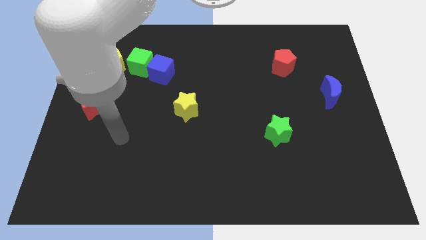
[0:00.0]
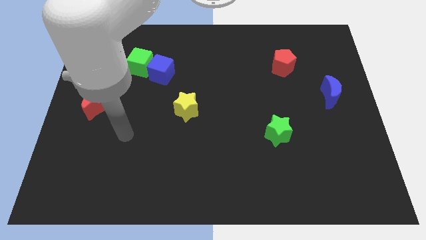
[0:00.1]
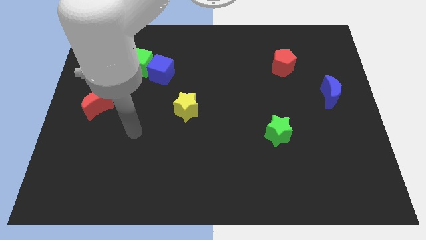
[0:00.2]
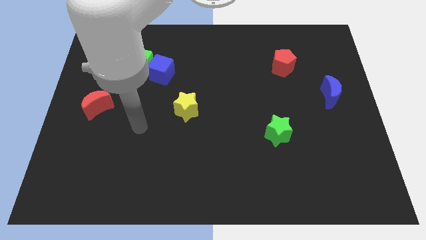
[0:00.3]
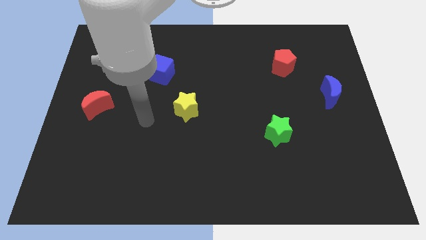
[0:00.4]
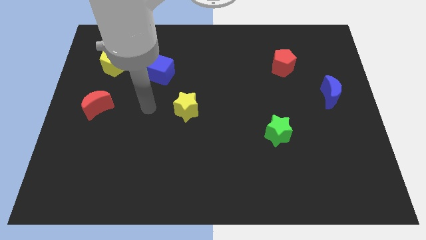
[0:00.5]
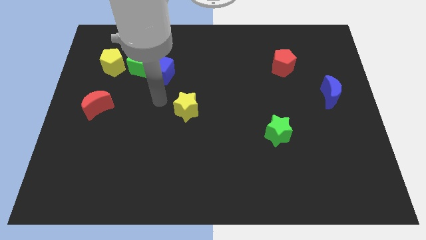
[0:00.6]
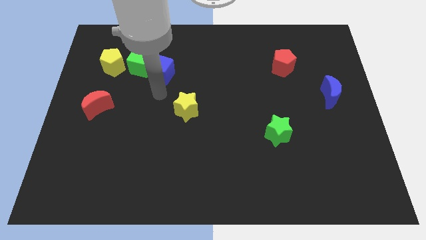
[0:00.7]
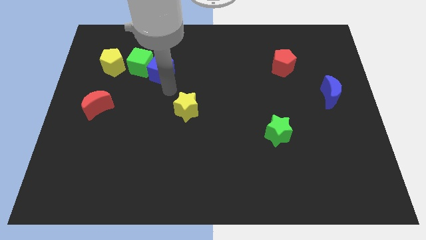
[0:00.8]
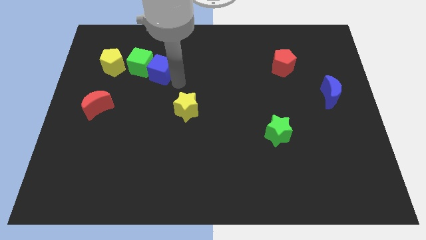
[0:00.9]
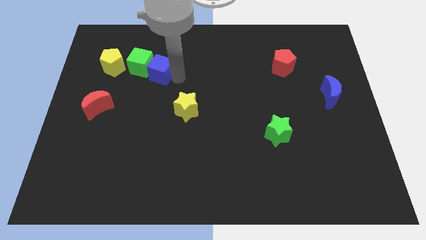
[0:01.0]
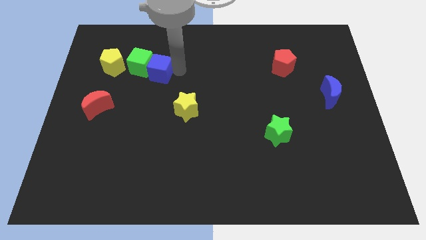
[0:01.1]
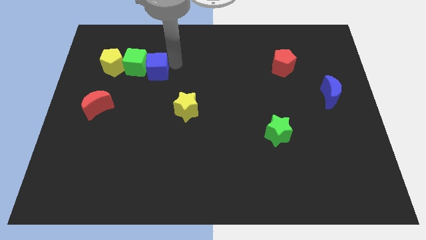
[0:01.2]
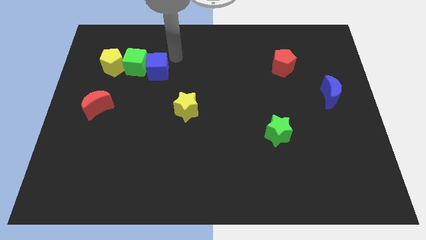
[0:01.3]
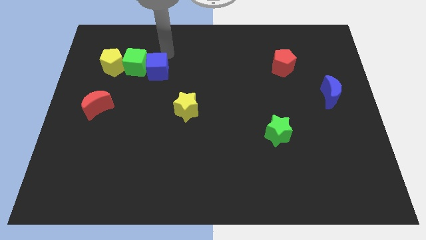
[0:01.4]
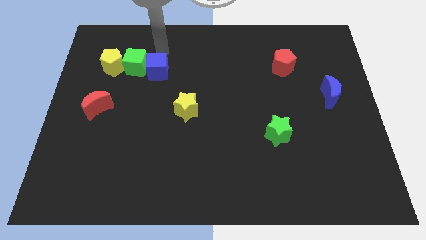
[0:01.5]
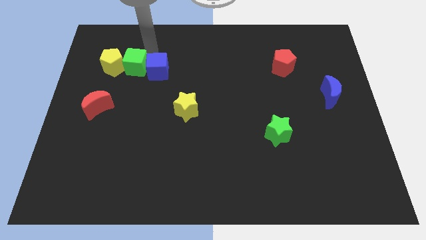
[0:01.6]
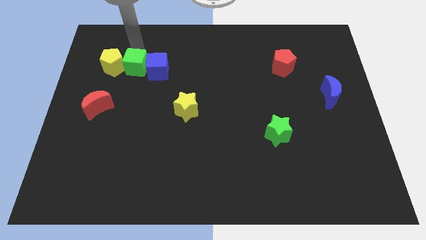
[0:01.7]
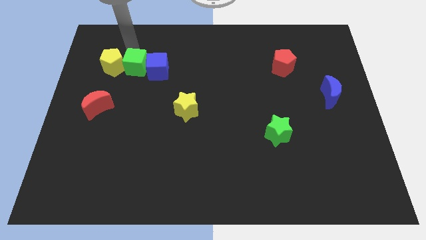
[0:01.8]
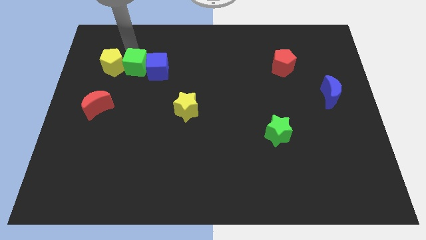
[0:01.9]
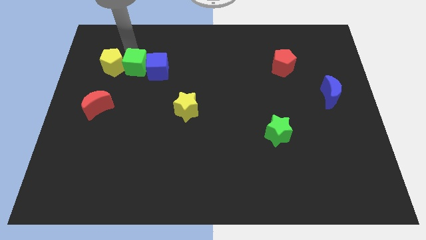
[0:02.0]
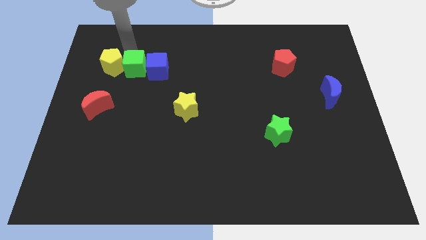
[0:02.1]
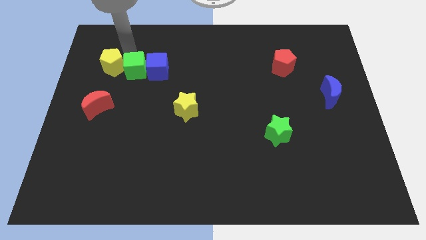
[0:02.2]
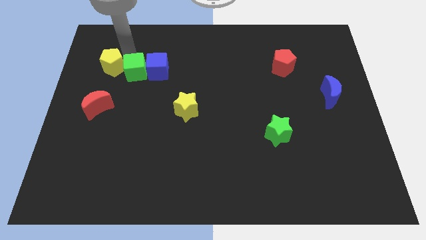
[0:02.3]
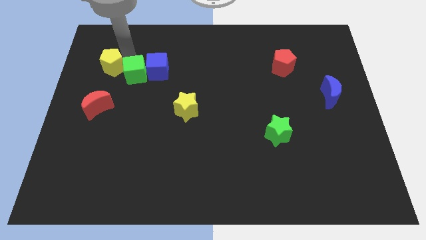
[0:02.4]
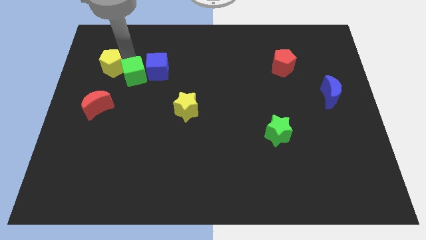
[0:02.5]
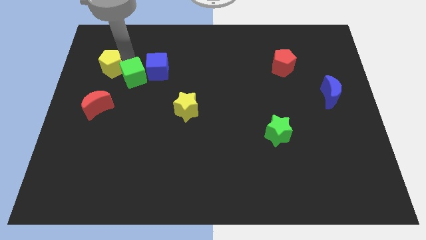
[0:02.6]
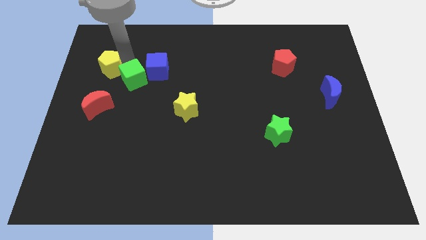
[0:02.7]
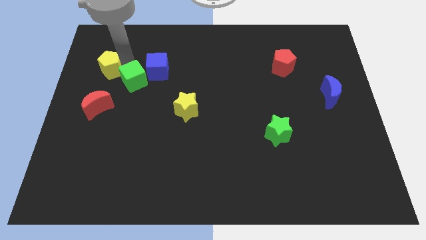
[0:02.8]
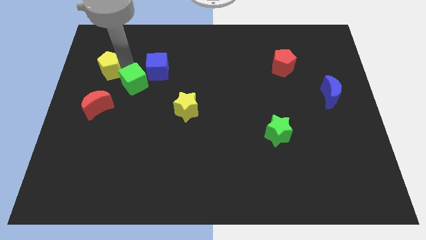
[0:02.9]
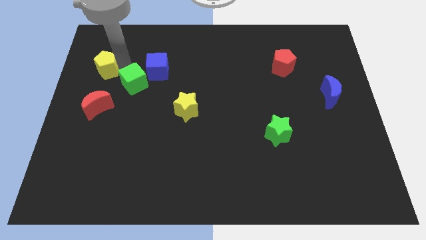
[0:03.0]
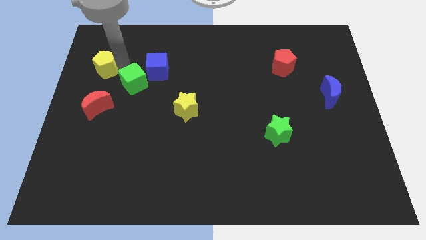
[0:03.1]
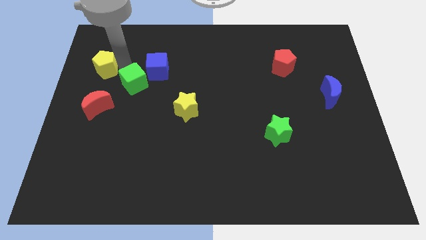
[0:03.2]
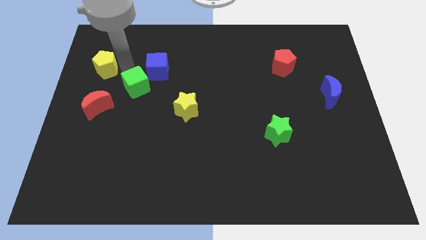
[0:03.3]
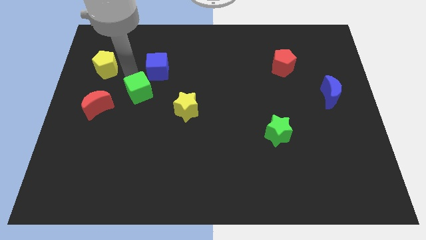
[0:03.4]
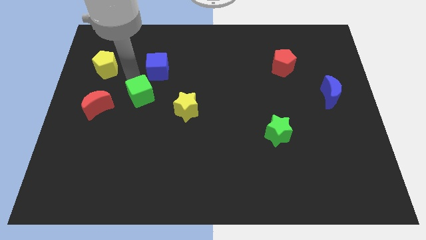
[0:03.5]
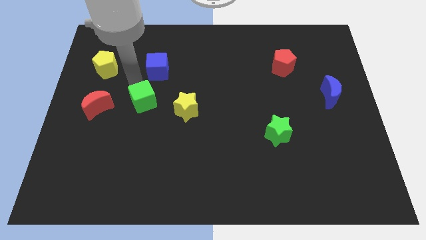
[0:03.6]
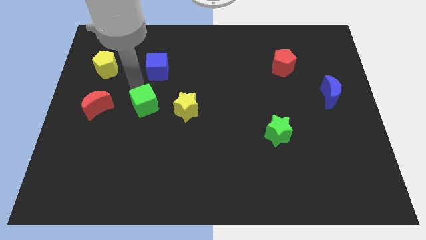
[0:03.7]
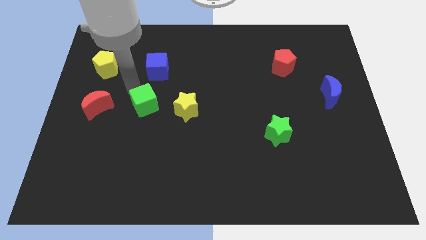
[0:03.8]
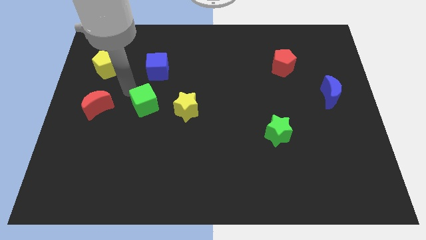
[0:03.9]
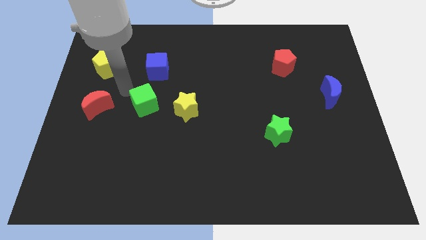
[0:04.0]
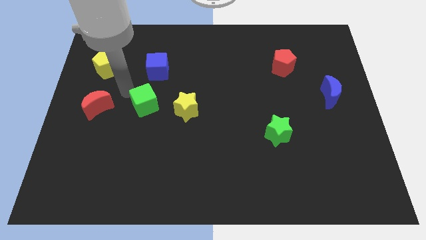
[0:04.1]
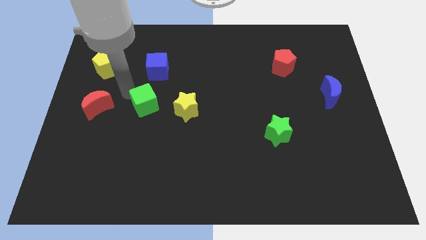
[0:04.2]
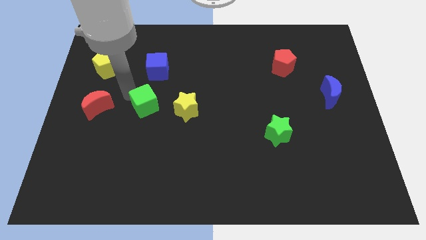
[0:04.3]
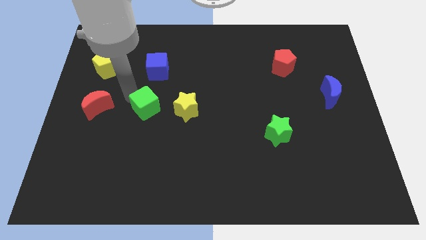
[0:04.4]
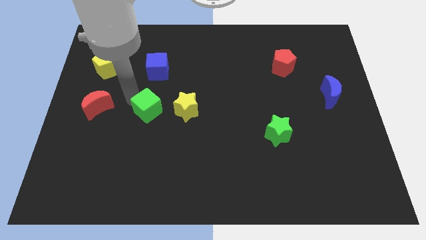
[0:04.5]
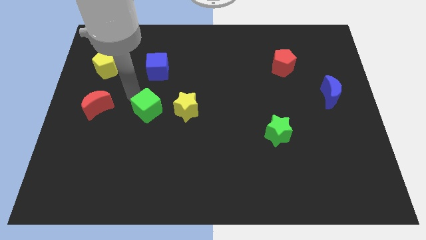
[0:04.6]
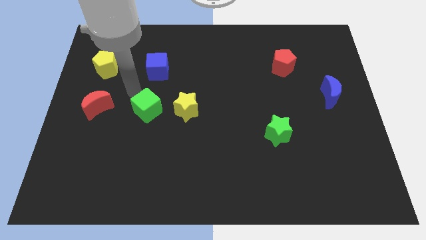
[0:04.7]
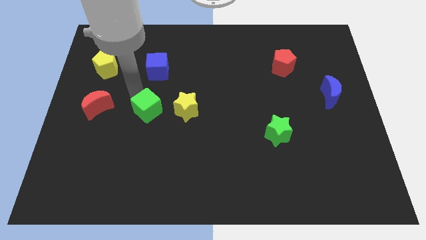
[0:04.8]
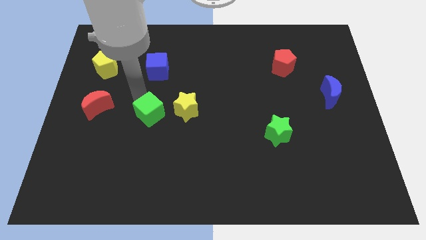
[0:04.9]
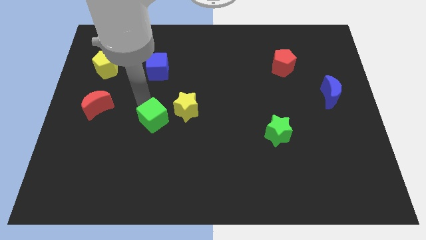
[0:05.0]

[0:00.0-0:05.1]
put the green cube diagonally down and to the left of the yellow star

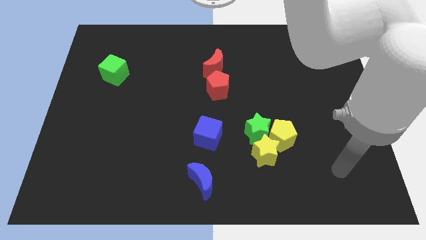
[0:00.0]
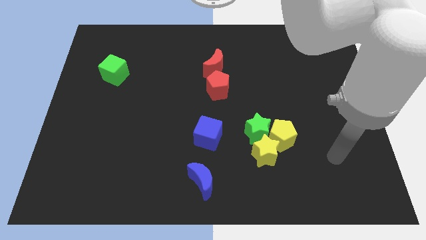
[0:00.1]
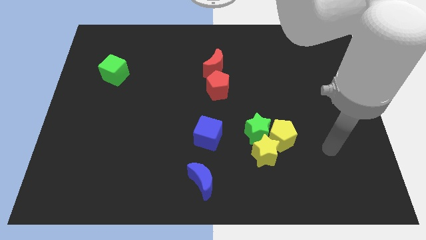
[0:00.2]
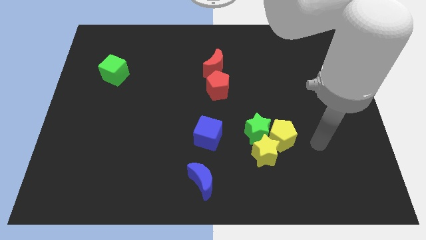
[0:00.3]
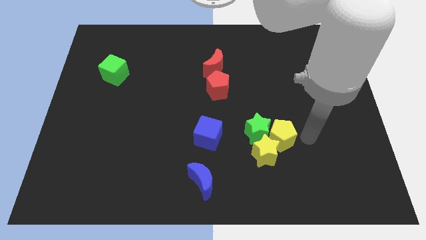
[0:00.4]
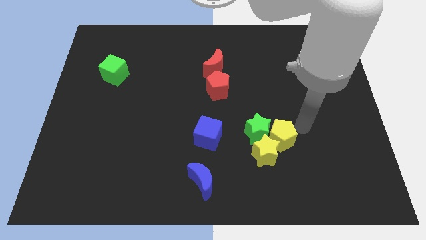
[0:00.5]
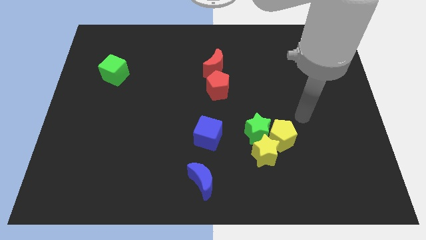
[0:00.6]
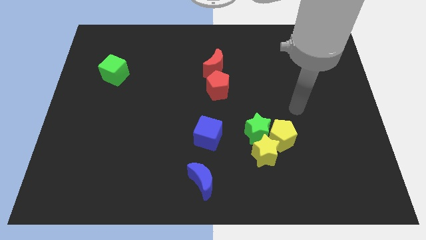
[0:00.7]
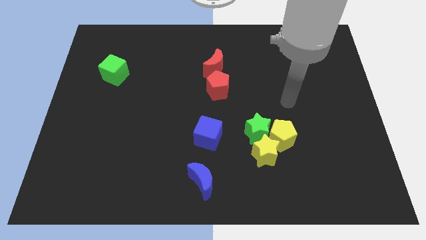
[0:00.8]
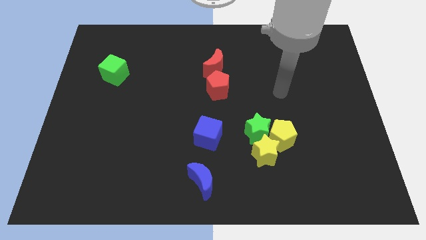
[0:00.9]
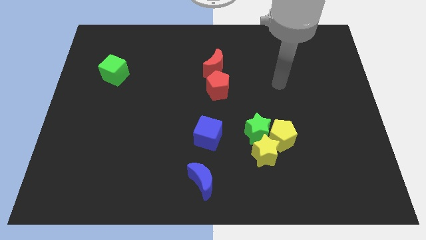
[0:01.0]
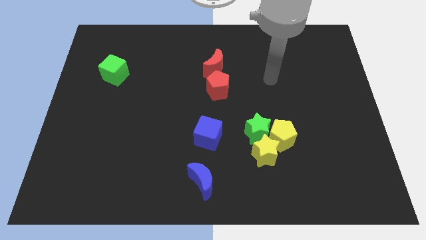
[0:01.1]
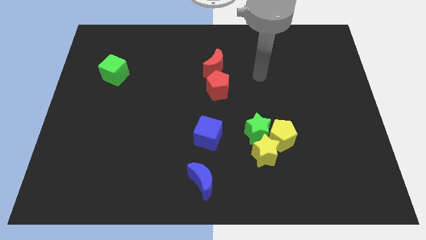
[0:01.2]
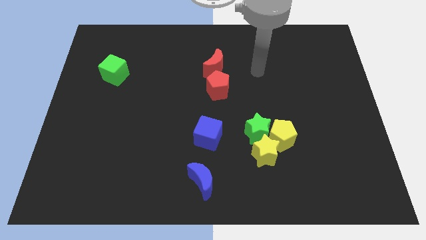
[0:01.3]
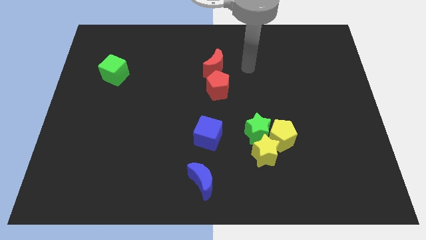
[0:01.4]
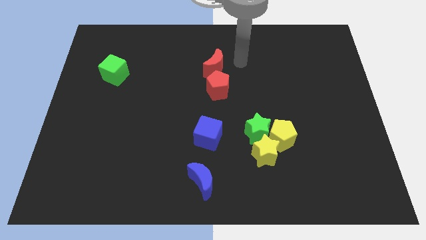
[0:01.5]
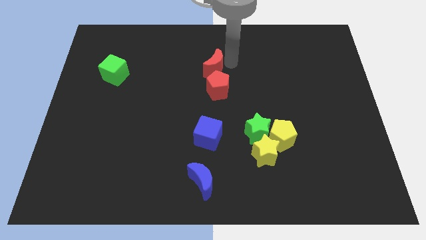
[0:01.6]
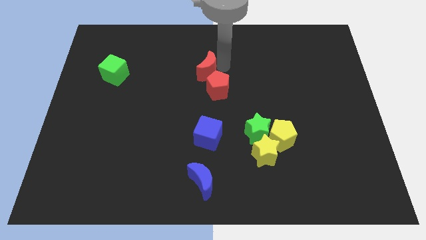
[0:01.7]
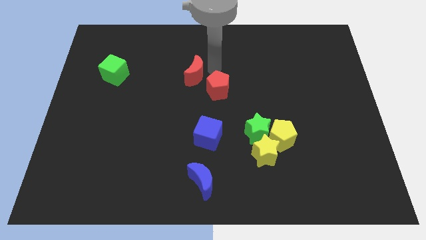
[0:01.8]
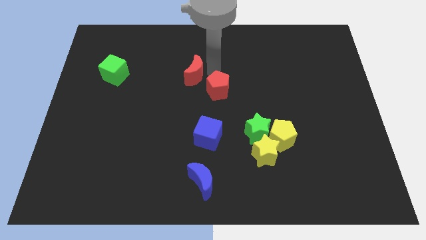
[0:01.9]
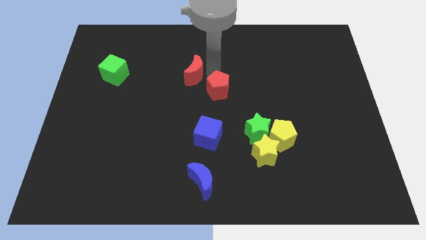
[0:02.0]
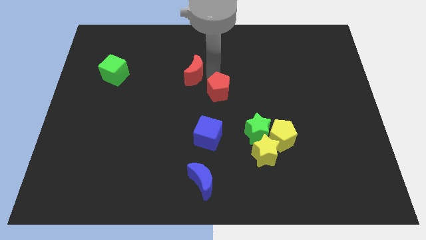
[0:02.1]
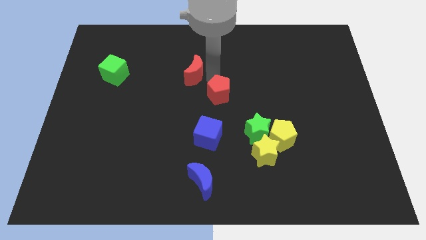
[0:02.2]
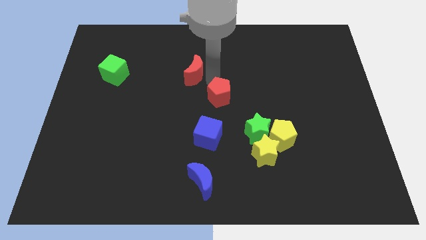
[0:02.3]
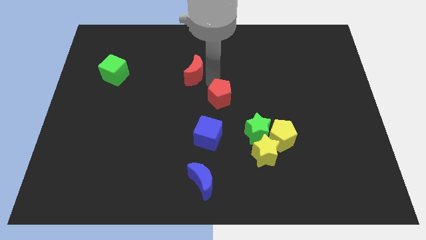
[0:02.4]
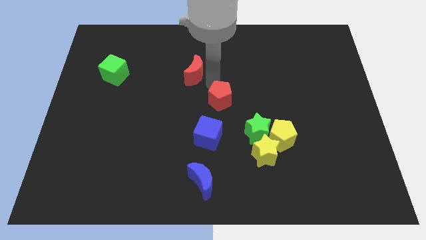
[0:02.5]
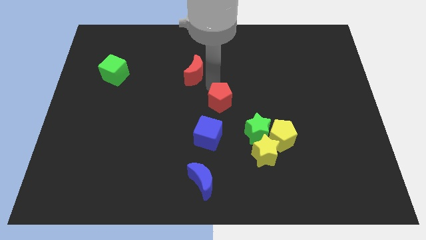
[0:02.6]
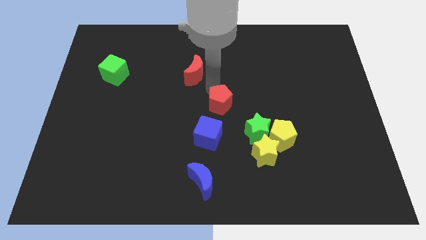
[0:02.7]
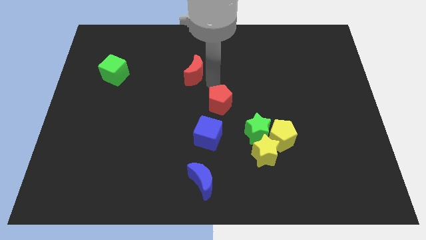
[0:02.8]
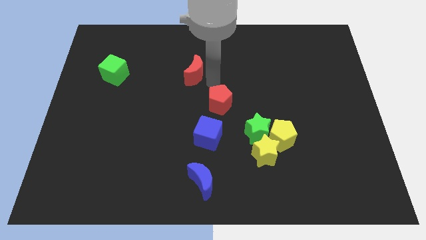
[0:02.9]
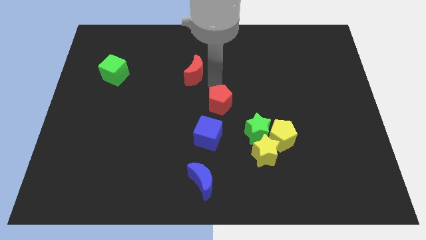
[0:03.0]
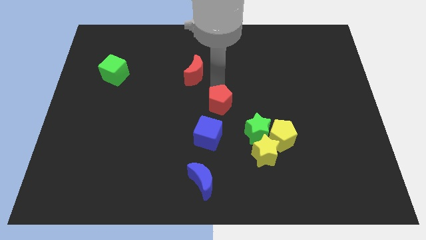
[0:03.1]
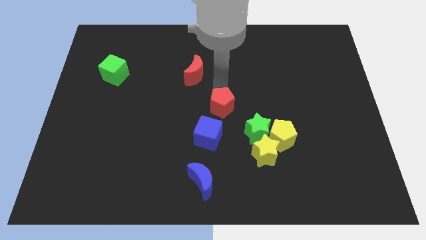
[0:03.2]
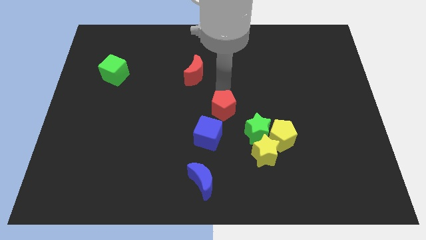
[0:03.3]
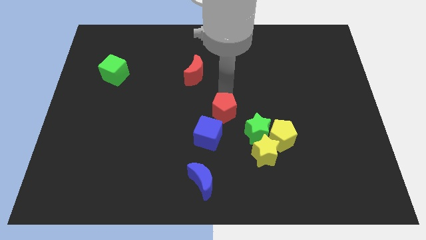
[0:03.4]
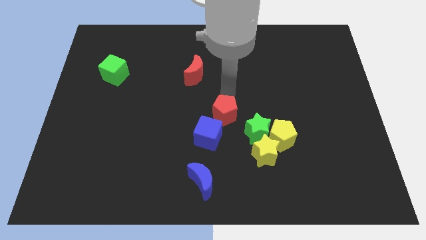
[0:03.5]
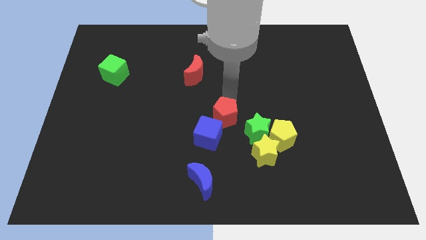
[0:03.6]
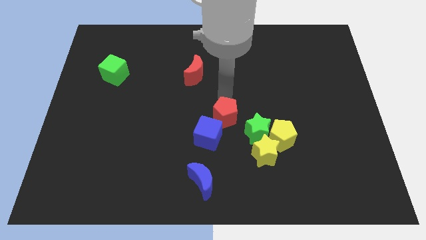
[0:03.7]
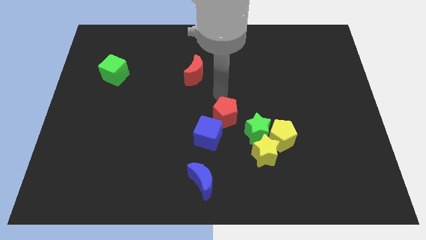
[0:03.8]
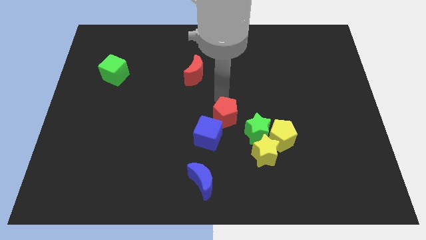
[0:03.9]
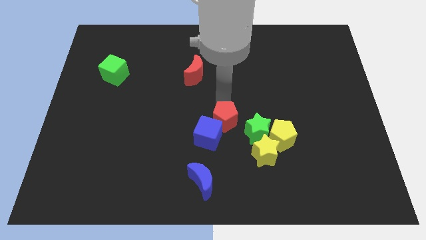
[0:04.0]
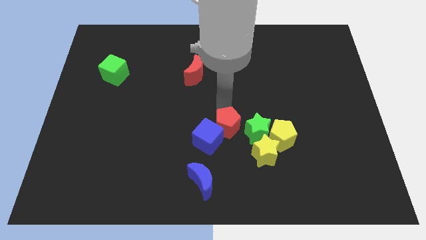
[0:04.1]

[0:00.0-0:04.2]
move the red pentagon left of the yellow pentagon
